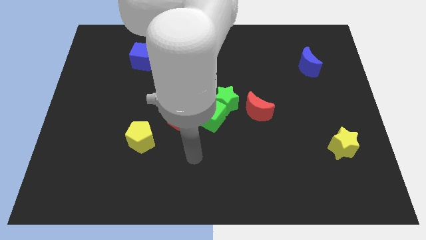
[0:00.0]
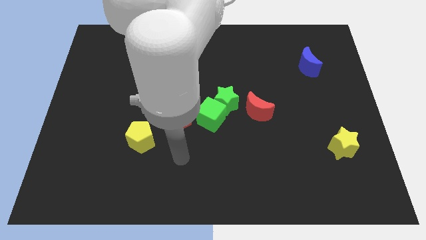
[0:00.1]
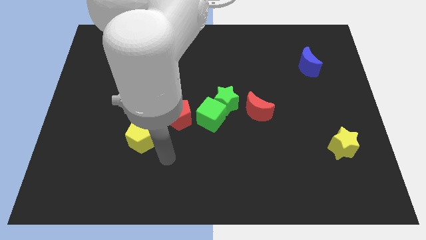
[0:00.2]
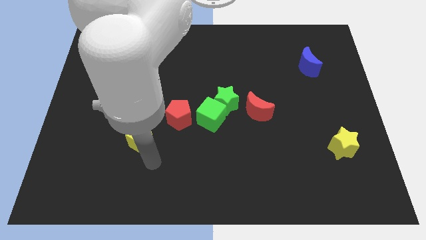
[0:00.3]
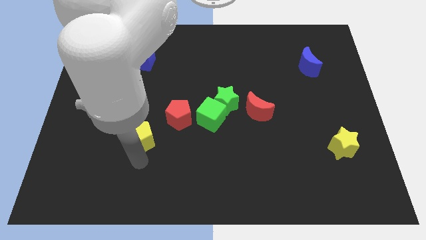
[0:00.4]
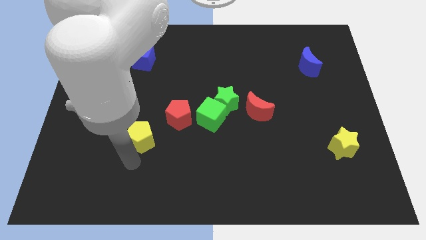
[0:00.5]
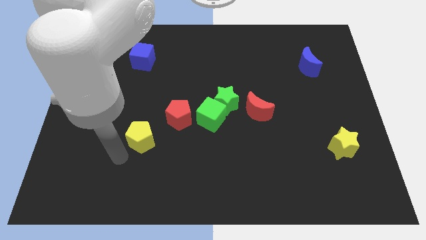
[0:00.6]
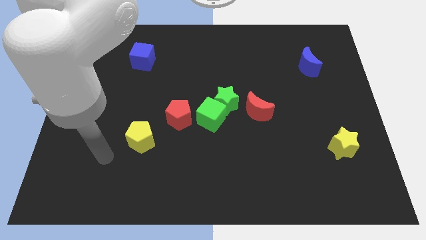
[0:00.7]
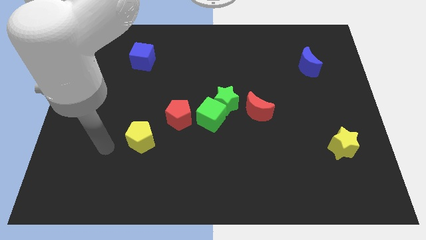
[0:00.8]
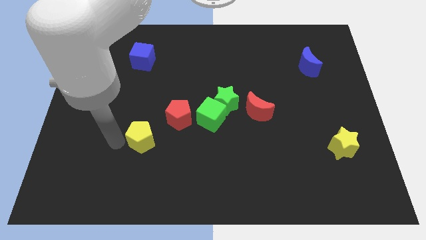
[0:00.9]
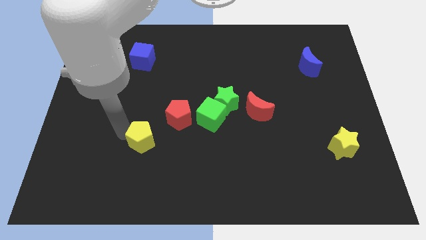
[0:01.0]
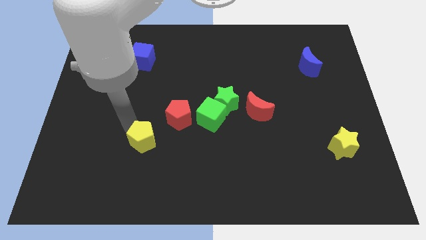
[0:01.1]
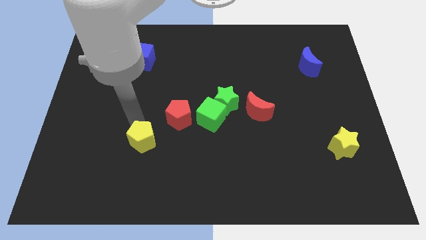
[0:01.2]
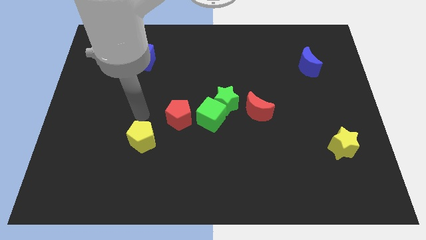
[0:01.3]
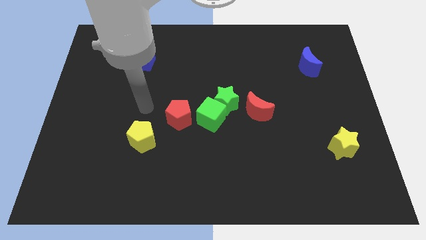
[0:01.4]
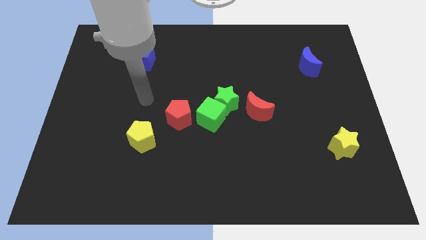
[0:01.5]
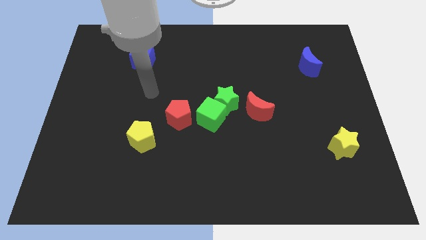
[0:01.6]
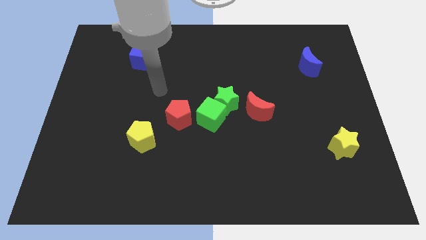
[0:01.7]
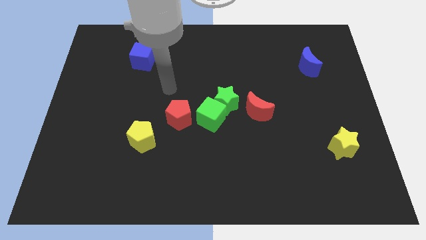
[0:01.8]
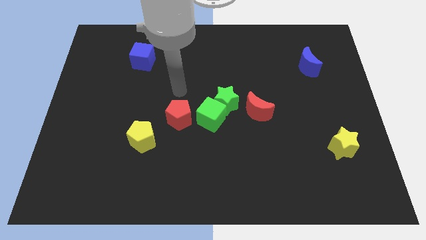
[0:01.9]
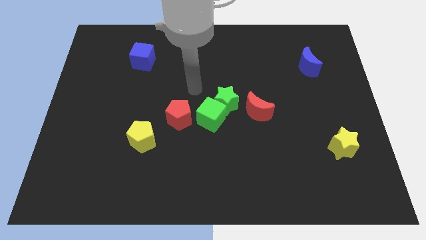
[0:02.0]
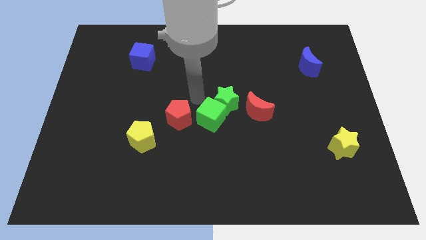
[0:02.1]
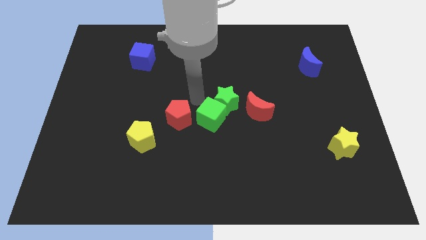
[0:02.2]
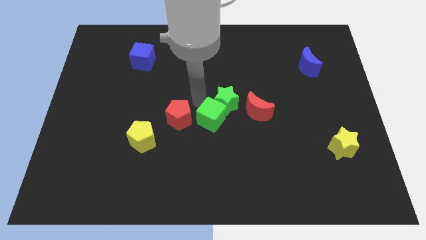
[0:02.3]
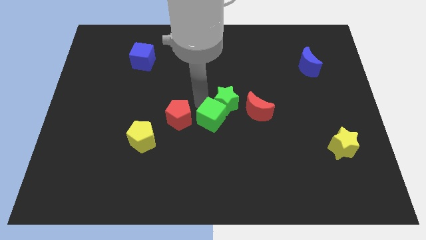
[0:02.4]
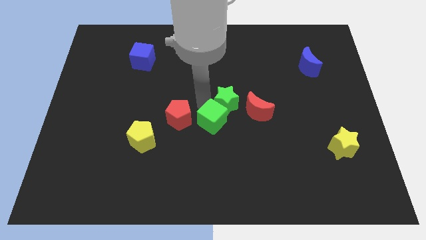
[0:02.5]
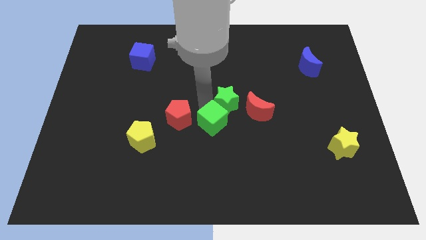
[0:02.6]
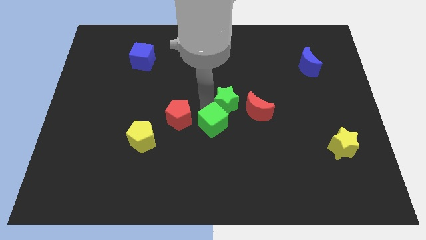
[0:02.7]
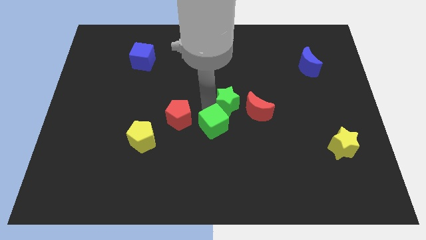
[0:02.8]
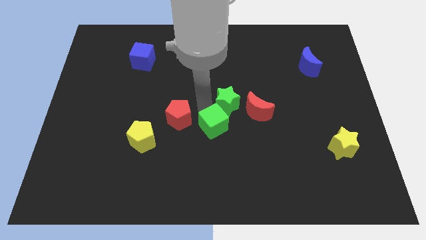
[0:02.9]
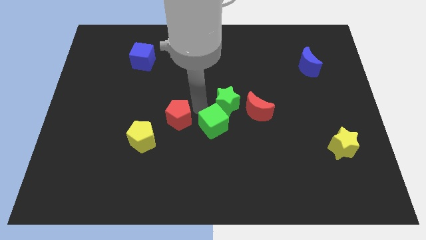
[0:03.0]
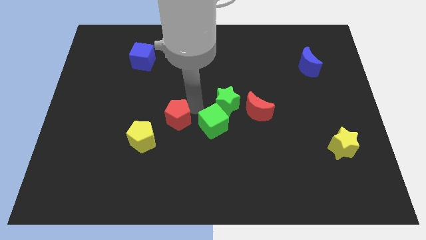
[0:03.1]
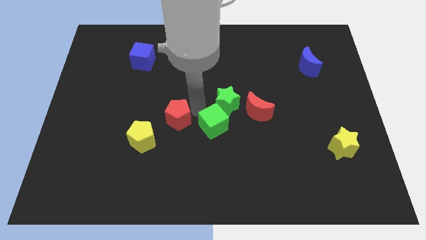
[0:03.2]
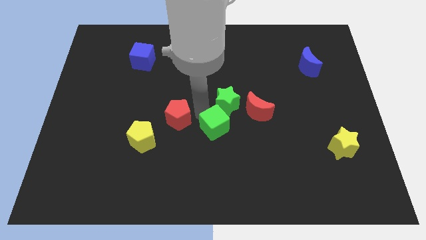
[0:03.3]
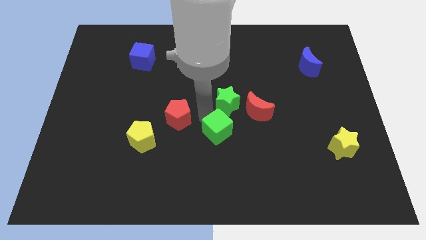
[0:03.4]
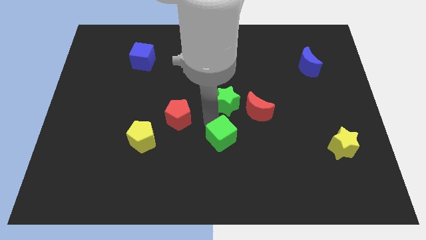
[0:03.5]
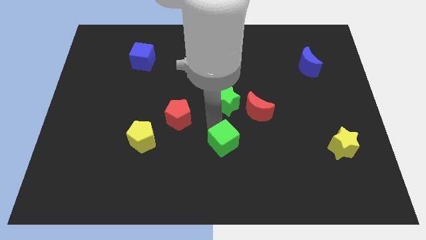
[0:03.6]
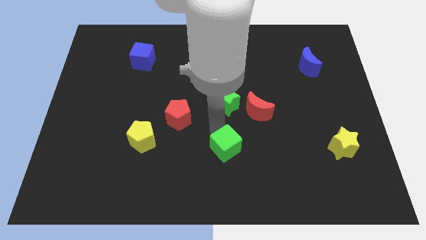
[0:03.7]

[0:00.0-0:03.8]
separate the green cube from the green star and red pentagon

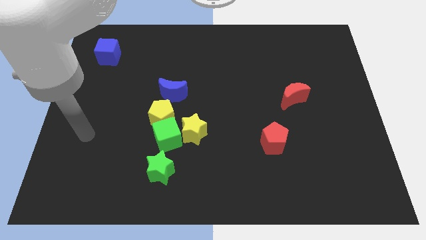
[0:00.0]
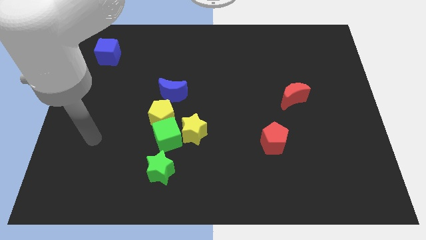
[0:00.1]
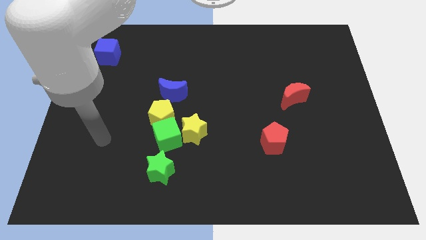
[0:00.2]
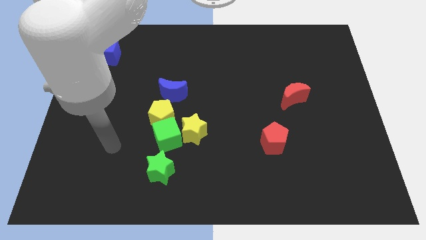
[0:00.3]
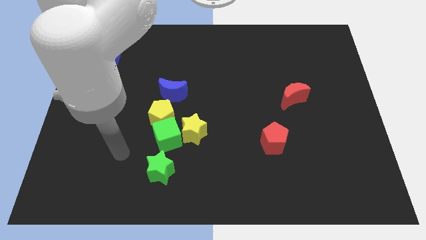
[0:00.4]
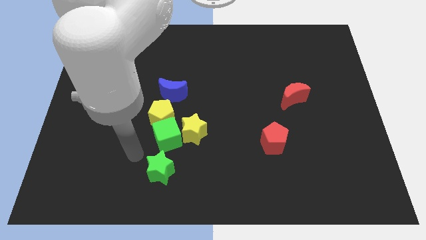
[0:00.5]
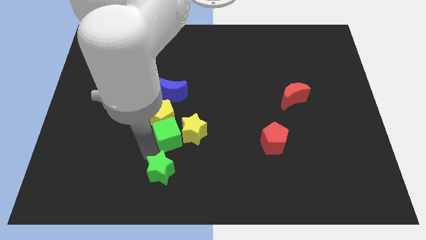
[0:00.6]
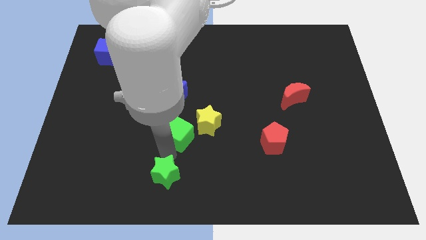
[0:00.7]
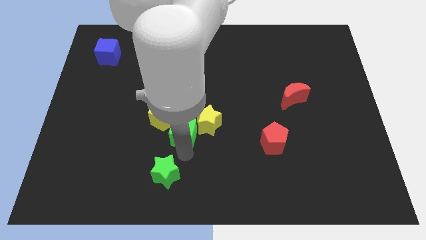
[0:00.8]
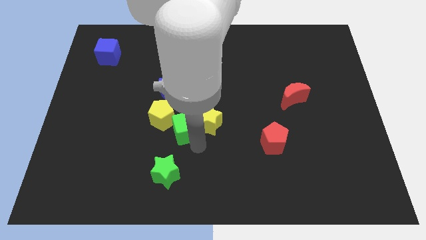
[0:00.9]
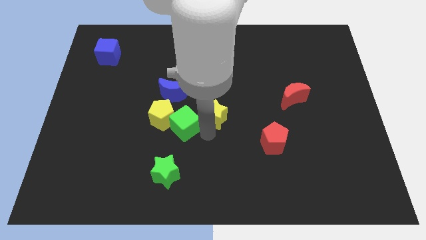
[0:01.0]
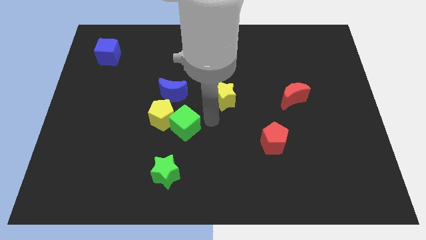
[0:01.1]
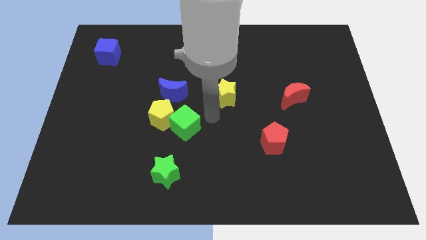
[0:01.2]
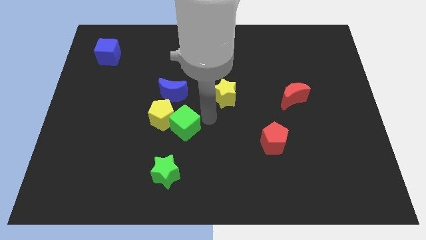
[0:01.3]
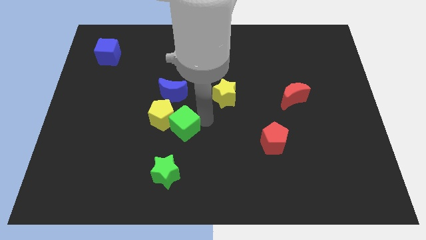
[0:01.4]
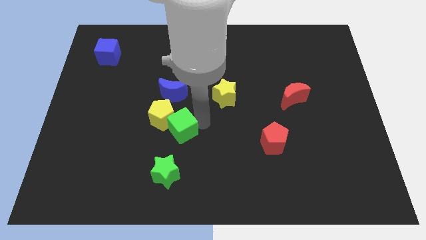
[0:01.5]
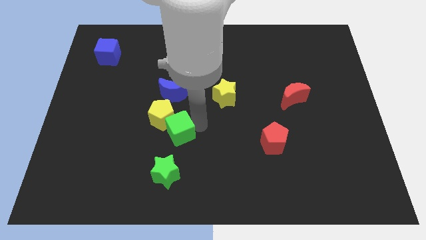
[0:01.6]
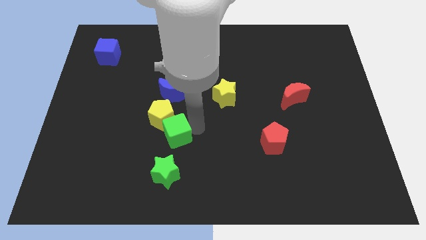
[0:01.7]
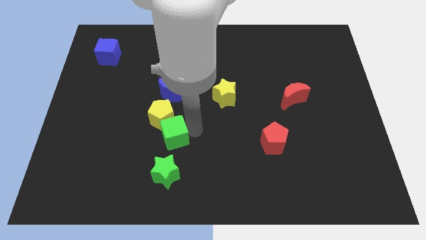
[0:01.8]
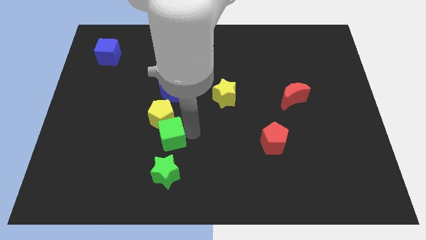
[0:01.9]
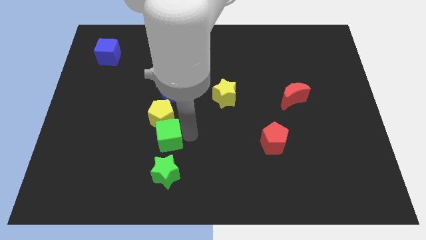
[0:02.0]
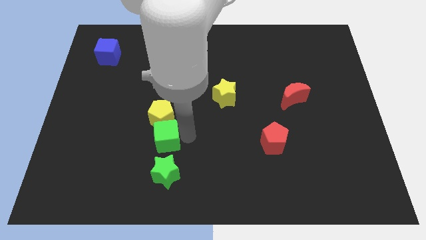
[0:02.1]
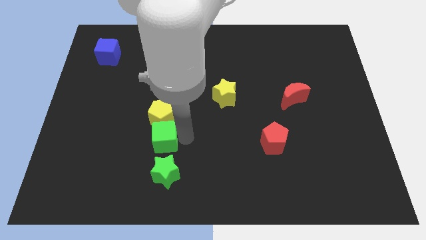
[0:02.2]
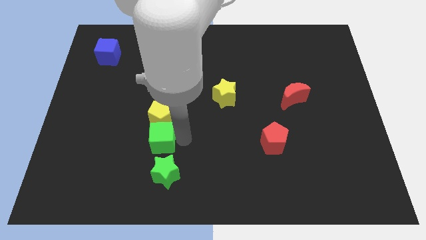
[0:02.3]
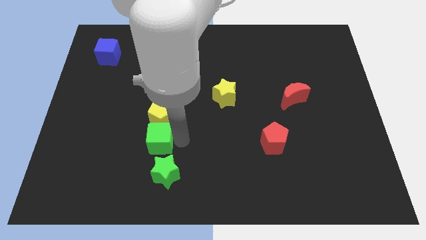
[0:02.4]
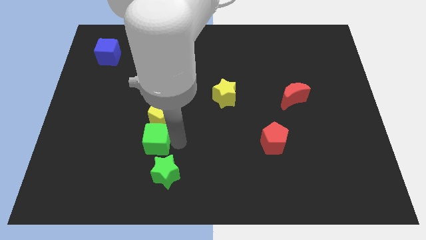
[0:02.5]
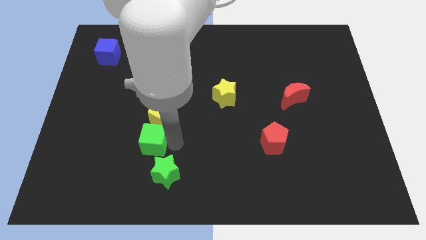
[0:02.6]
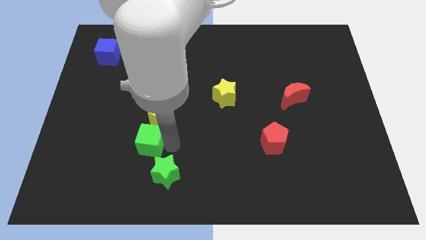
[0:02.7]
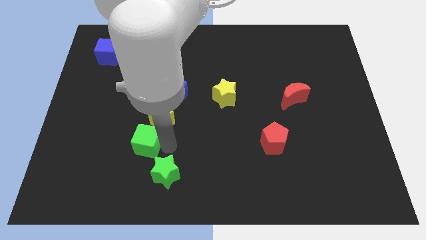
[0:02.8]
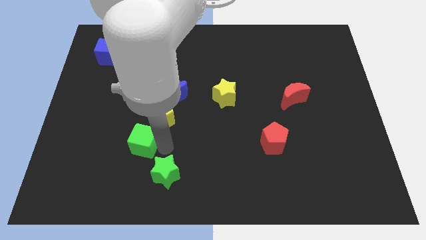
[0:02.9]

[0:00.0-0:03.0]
move the green cube away from the yellow pentagon, yellow star, and green star

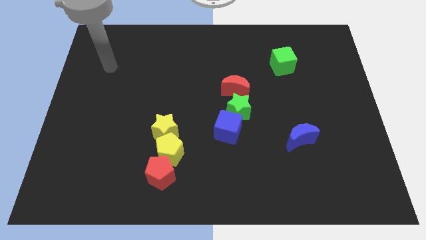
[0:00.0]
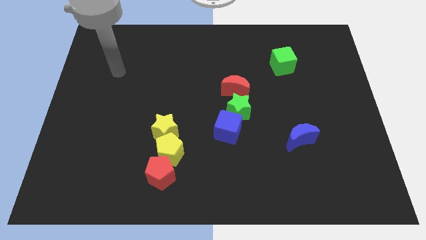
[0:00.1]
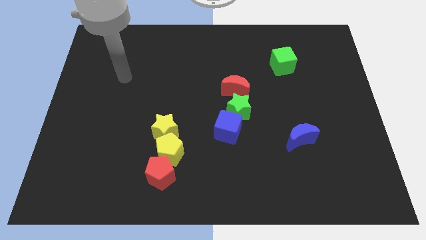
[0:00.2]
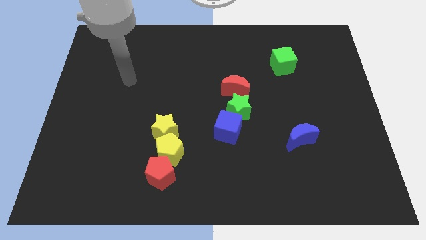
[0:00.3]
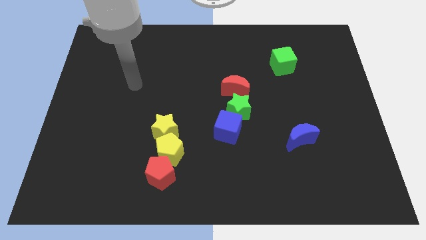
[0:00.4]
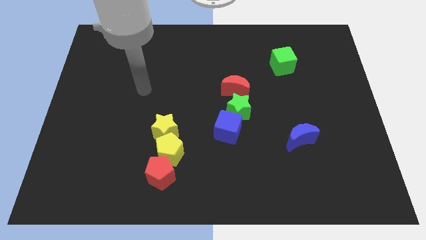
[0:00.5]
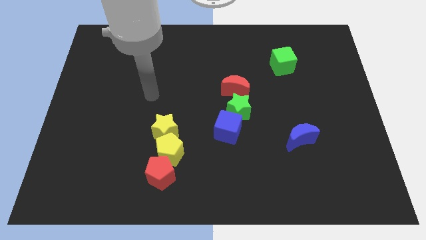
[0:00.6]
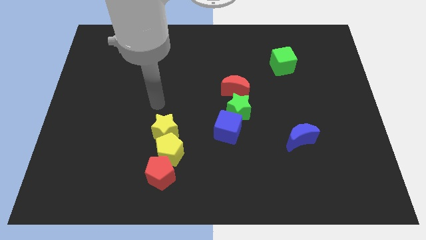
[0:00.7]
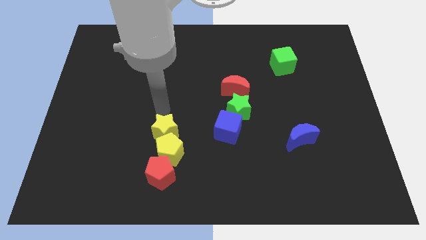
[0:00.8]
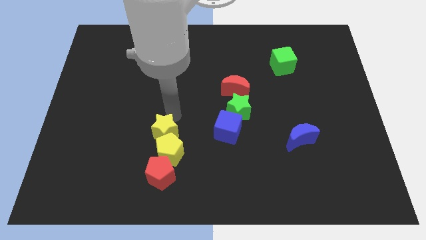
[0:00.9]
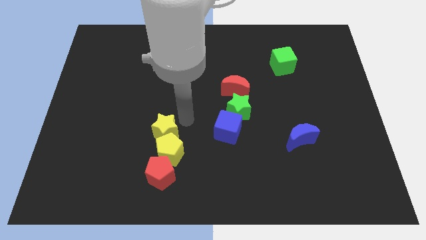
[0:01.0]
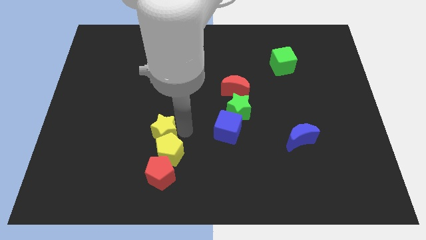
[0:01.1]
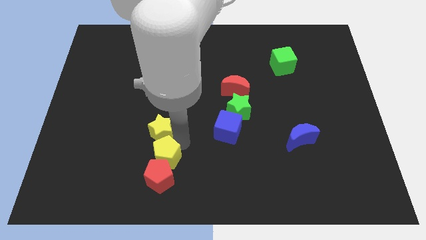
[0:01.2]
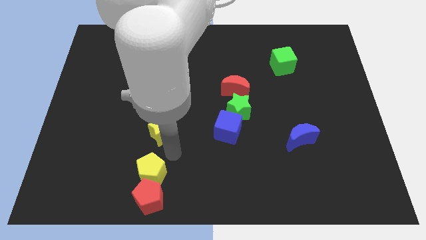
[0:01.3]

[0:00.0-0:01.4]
separate the yellow star from the yellow pentagon

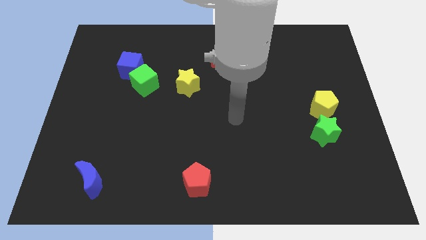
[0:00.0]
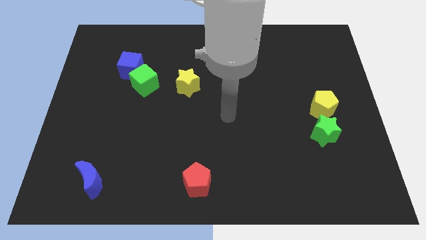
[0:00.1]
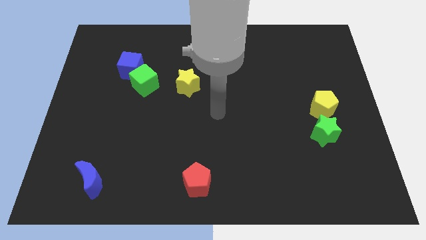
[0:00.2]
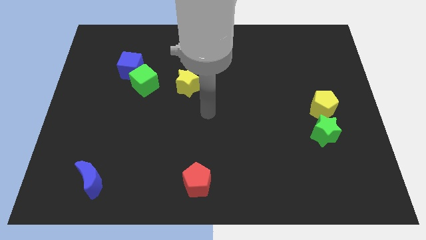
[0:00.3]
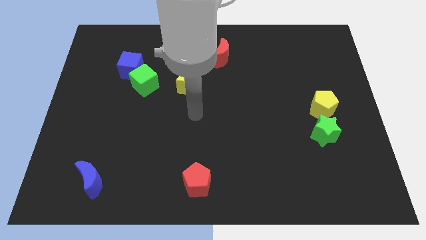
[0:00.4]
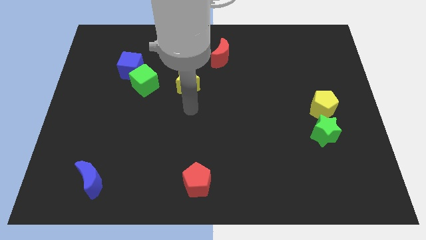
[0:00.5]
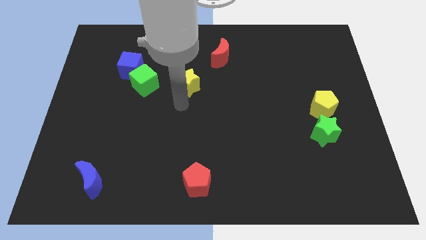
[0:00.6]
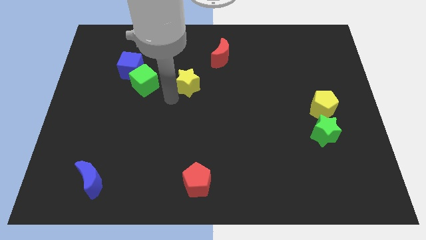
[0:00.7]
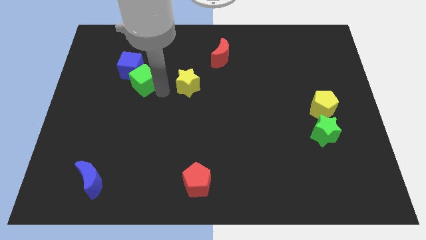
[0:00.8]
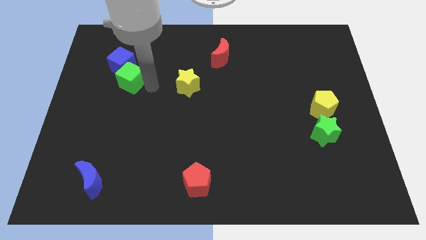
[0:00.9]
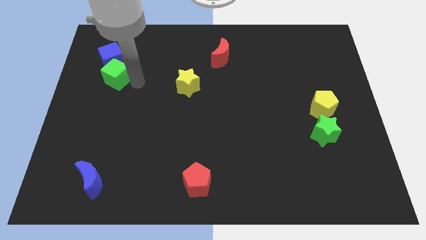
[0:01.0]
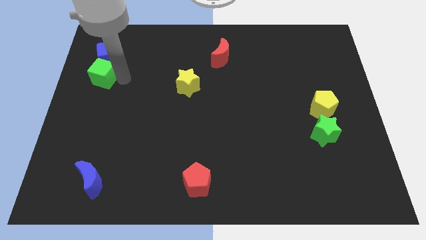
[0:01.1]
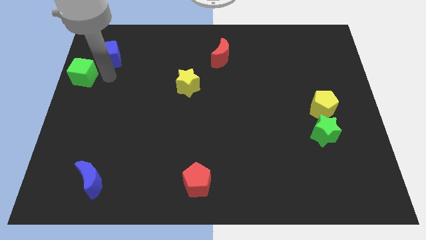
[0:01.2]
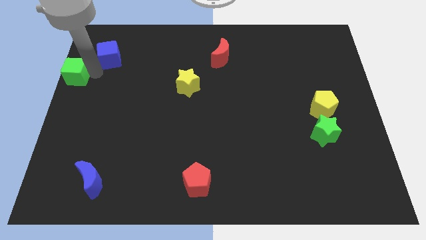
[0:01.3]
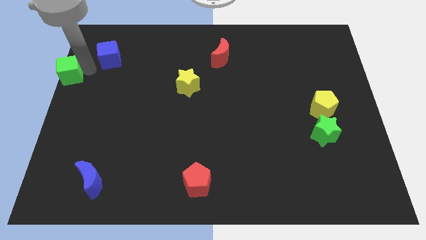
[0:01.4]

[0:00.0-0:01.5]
move the blue cube away from the green cube
